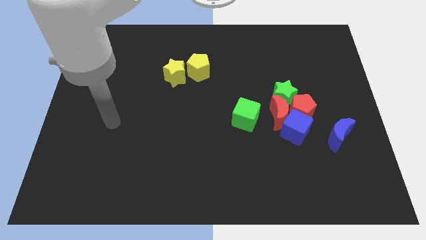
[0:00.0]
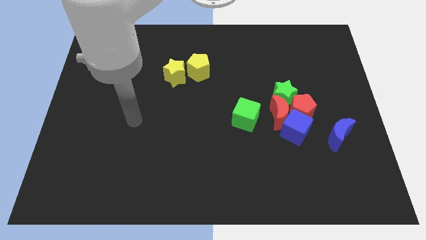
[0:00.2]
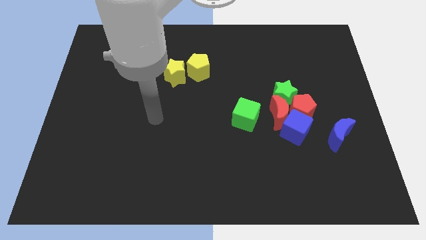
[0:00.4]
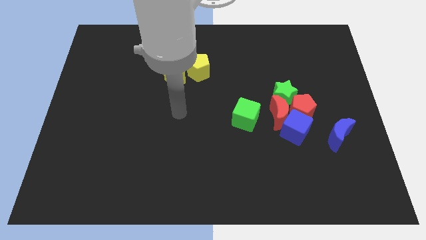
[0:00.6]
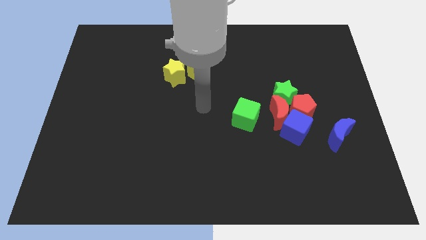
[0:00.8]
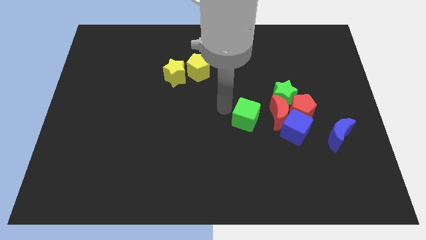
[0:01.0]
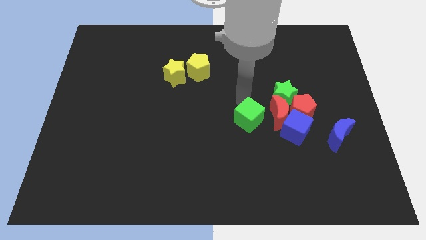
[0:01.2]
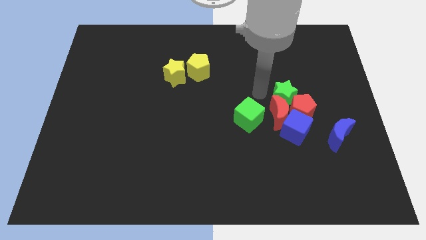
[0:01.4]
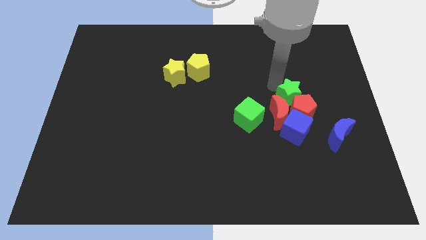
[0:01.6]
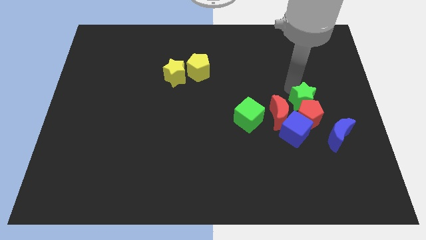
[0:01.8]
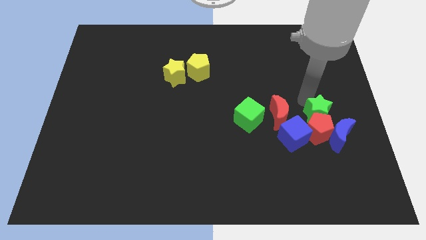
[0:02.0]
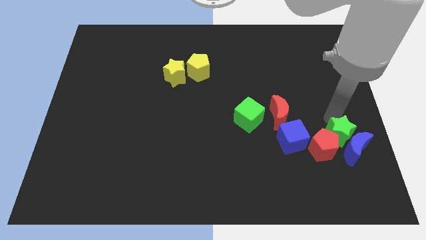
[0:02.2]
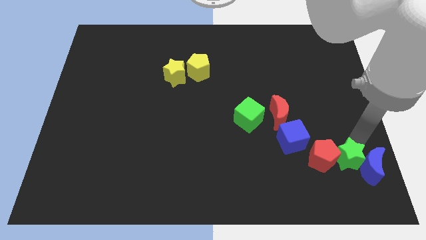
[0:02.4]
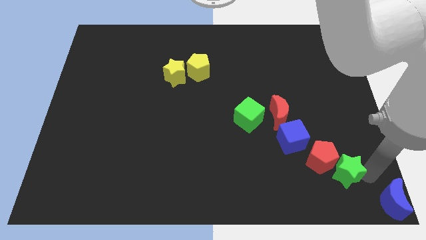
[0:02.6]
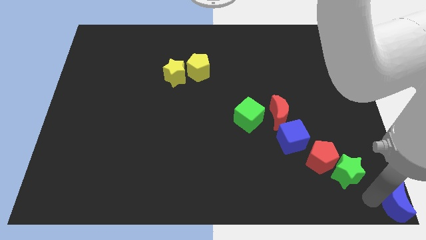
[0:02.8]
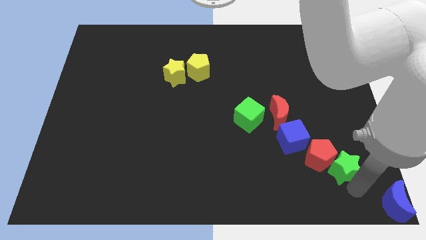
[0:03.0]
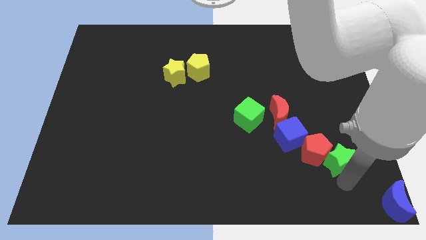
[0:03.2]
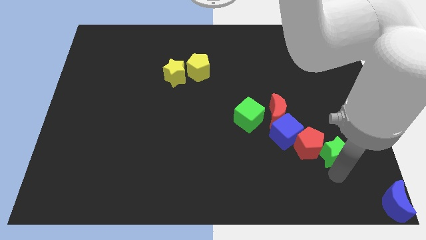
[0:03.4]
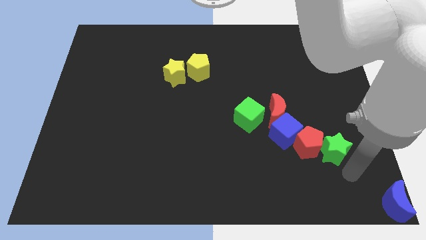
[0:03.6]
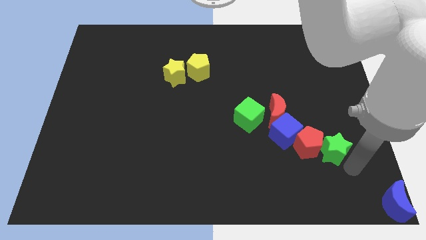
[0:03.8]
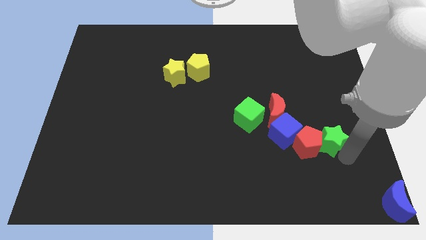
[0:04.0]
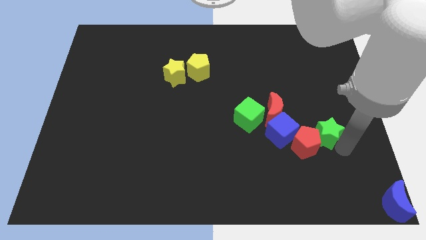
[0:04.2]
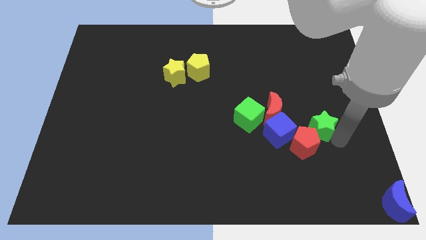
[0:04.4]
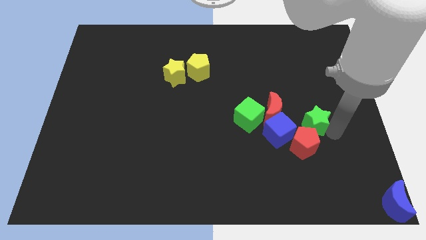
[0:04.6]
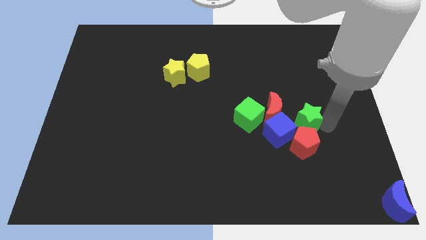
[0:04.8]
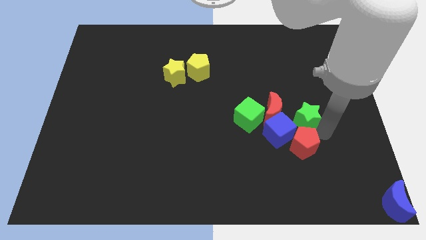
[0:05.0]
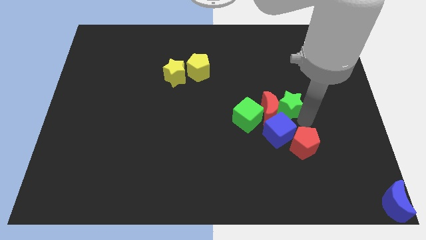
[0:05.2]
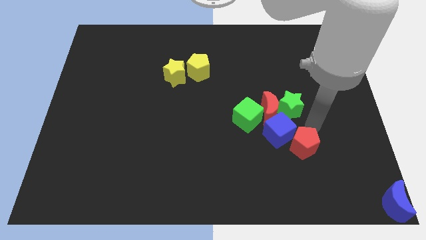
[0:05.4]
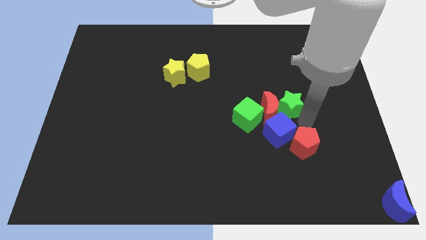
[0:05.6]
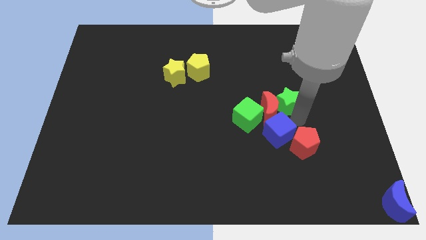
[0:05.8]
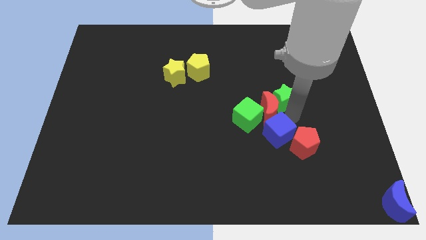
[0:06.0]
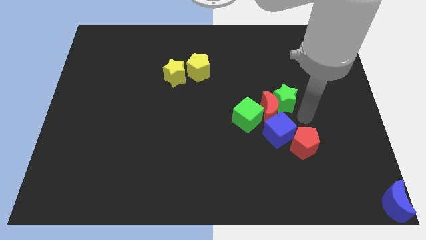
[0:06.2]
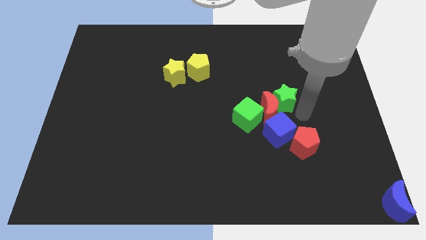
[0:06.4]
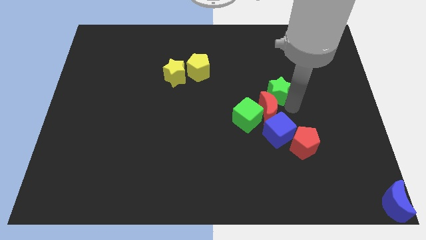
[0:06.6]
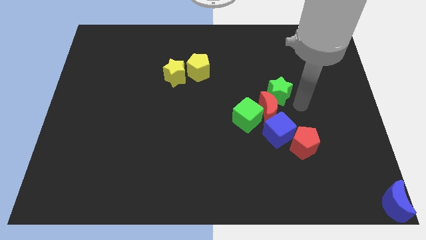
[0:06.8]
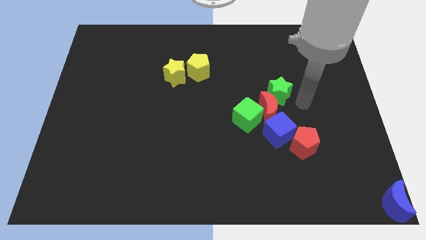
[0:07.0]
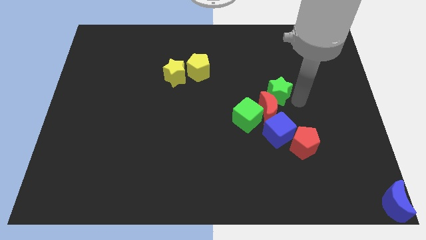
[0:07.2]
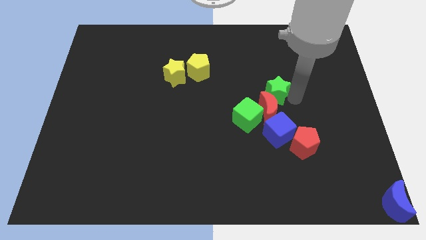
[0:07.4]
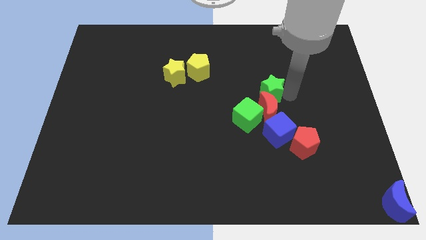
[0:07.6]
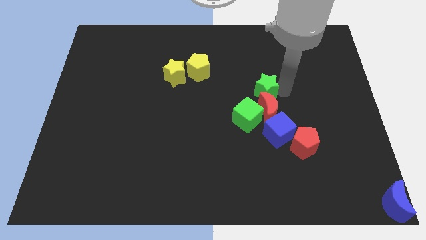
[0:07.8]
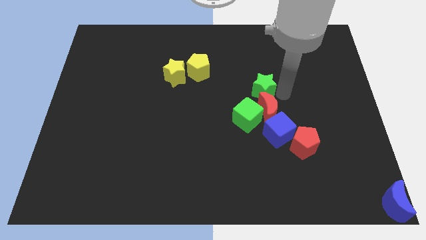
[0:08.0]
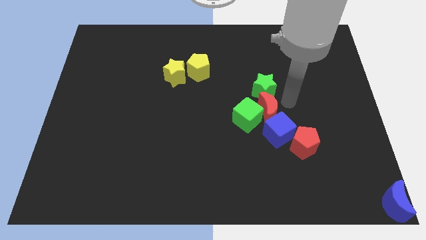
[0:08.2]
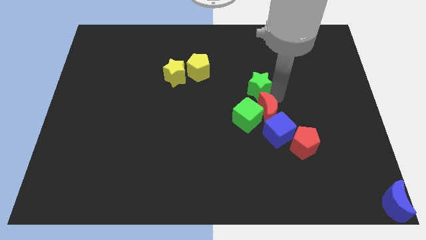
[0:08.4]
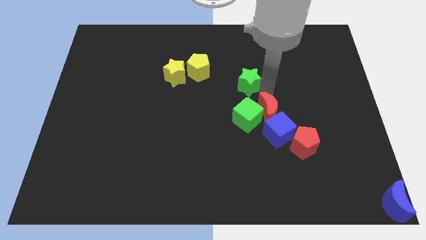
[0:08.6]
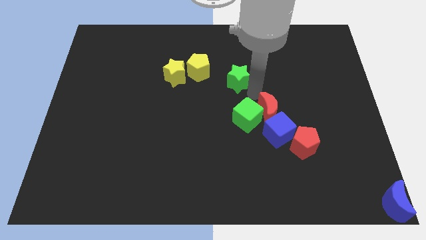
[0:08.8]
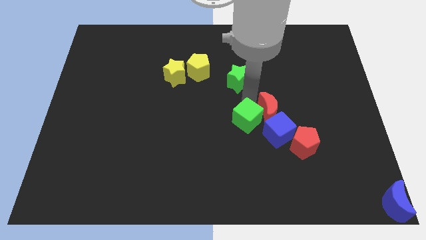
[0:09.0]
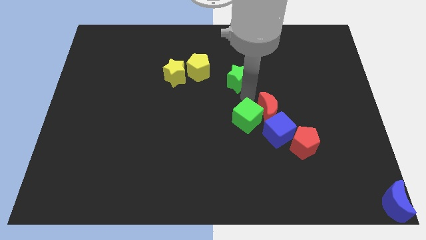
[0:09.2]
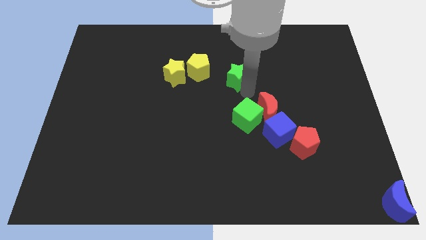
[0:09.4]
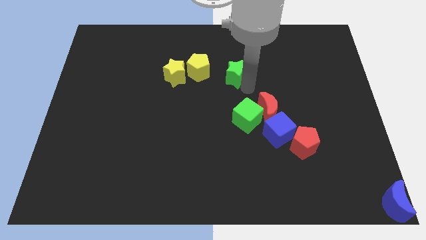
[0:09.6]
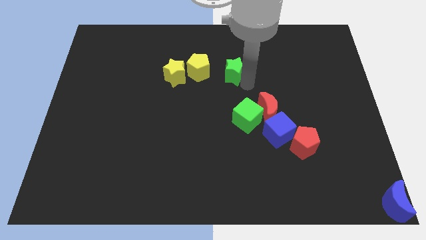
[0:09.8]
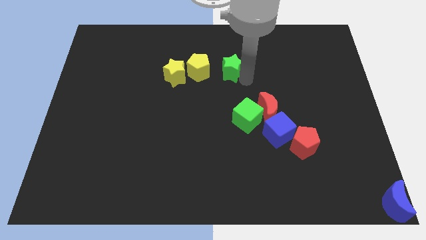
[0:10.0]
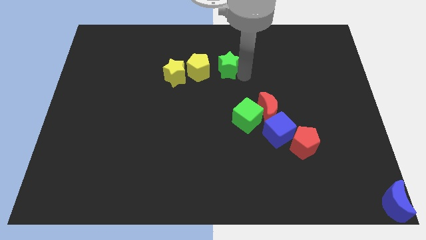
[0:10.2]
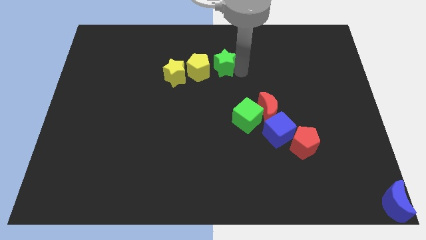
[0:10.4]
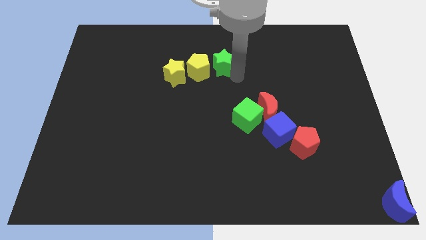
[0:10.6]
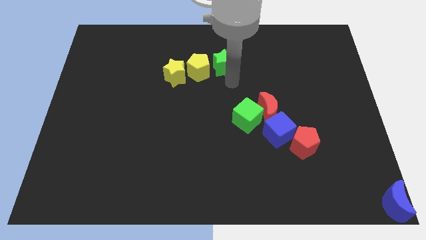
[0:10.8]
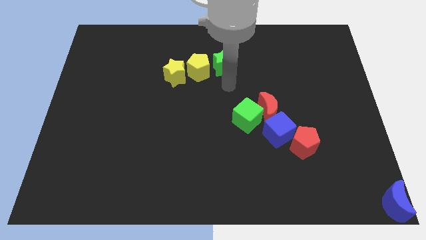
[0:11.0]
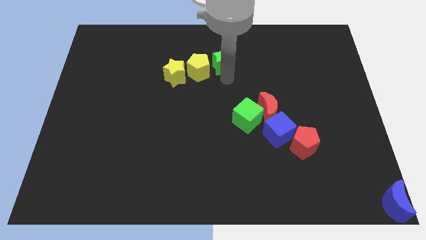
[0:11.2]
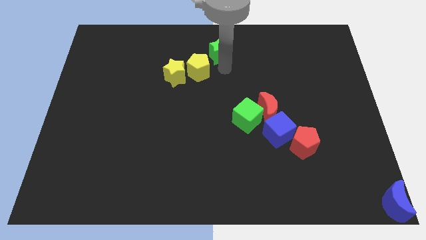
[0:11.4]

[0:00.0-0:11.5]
slide the green star to the towards your base

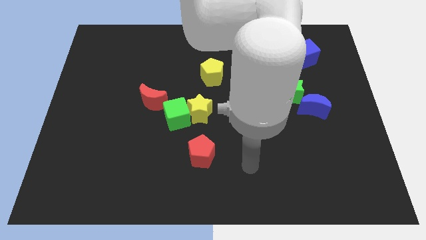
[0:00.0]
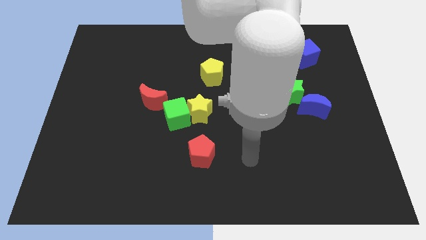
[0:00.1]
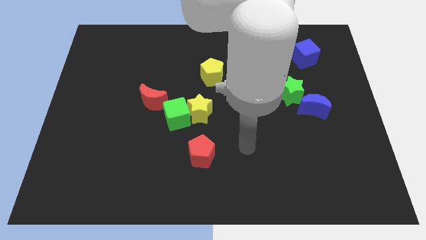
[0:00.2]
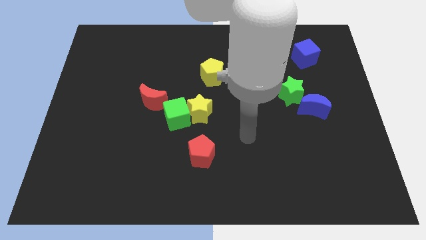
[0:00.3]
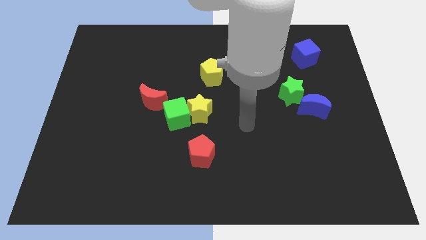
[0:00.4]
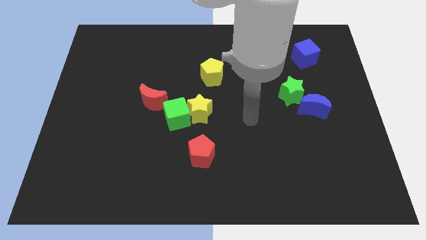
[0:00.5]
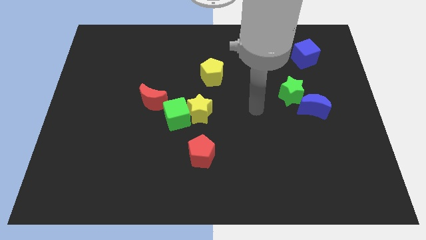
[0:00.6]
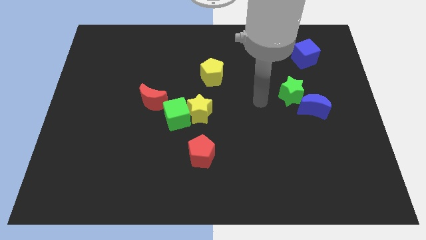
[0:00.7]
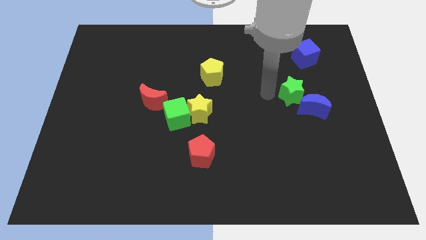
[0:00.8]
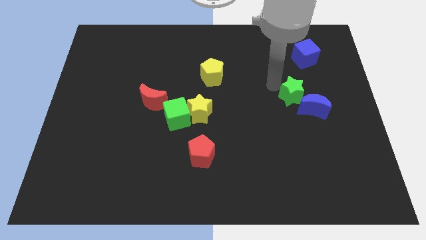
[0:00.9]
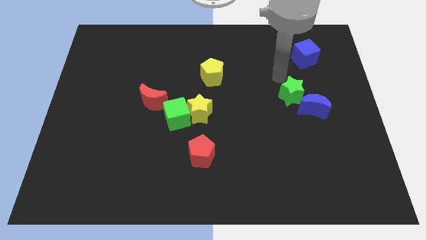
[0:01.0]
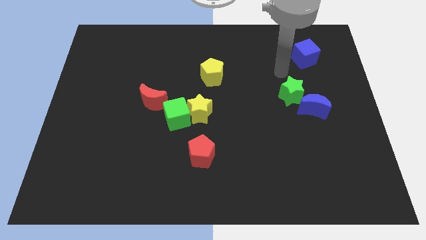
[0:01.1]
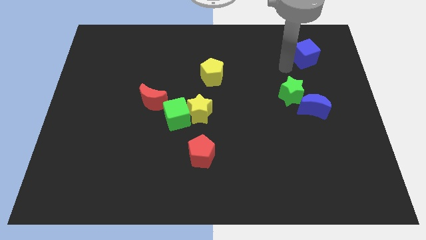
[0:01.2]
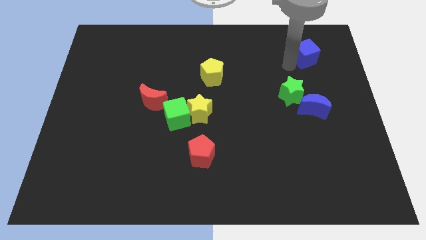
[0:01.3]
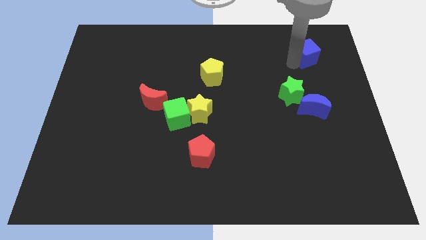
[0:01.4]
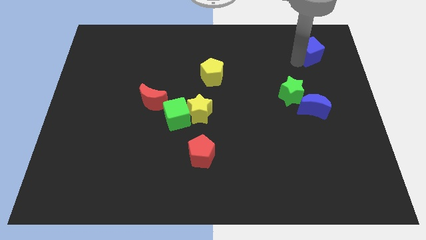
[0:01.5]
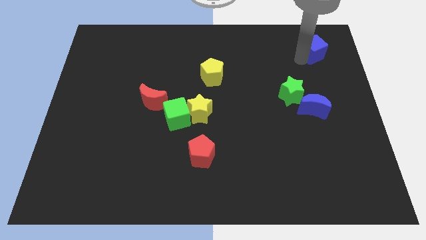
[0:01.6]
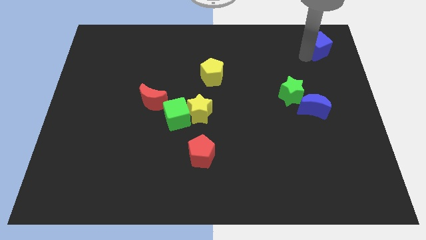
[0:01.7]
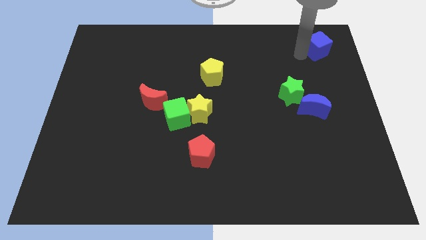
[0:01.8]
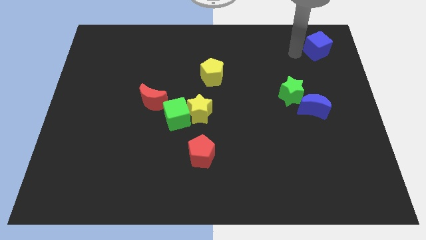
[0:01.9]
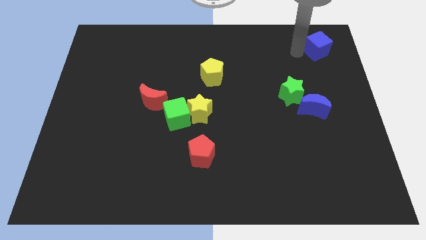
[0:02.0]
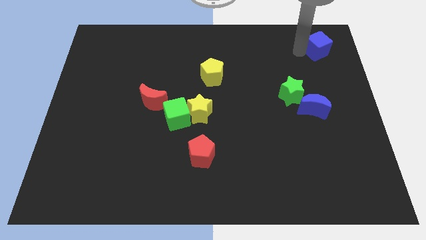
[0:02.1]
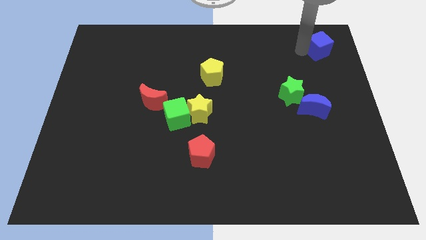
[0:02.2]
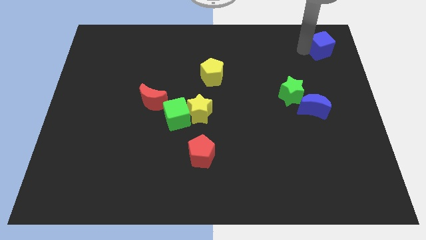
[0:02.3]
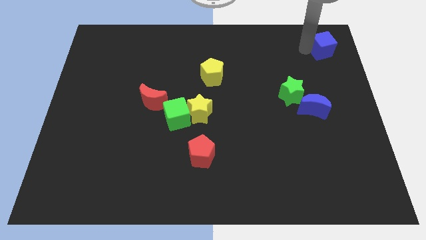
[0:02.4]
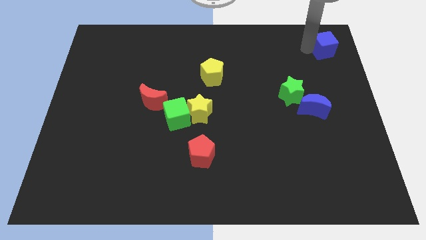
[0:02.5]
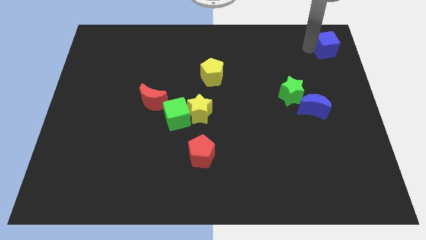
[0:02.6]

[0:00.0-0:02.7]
move the blue cube to the top right
